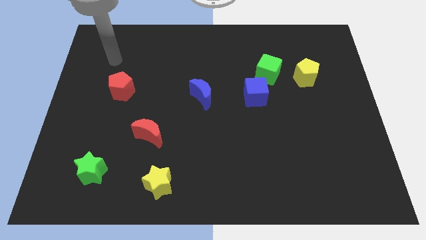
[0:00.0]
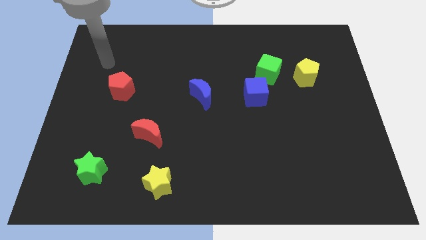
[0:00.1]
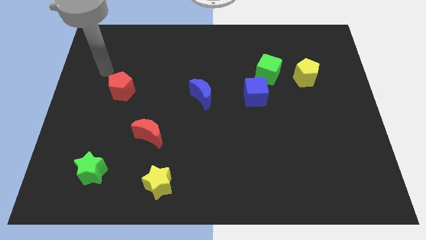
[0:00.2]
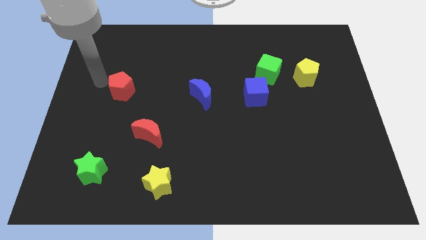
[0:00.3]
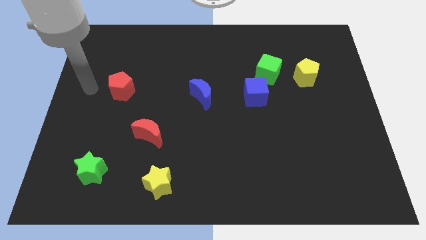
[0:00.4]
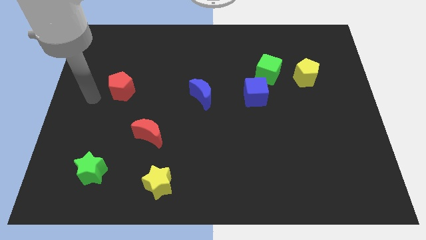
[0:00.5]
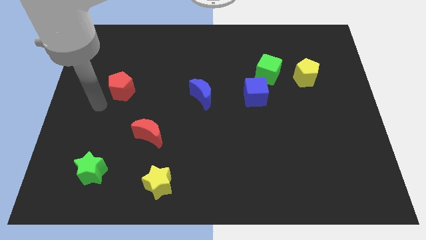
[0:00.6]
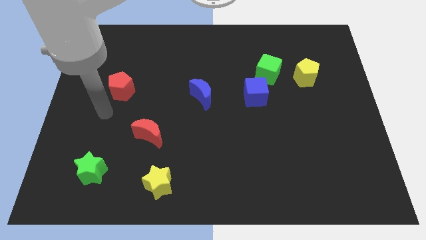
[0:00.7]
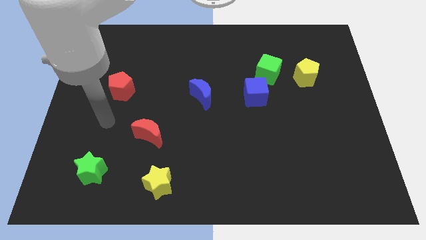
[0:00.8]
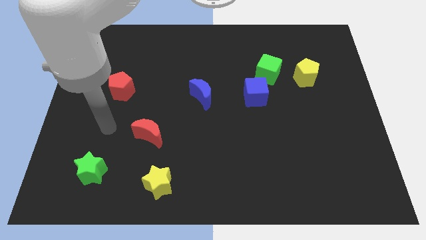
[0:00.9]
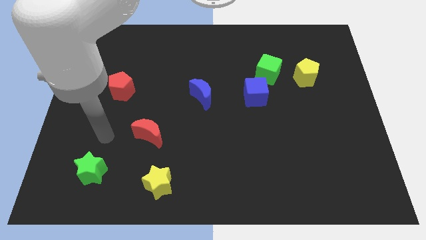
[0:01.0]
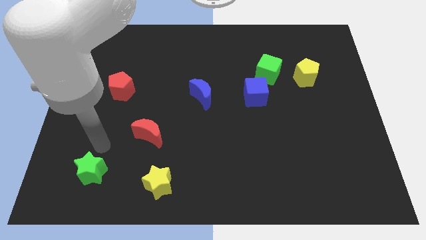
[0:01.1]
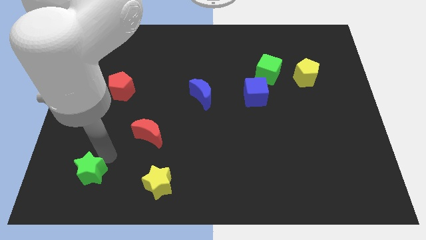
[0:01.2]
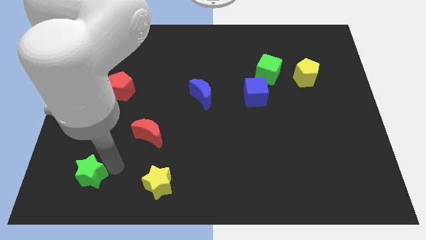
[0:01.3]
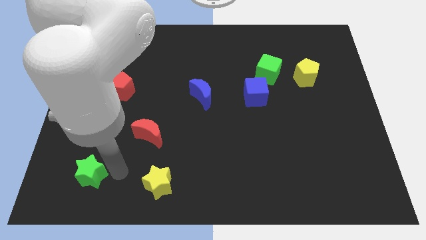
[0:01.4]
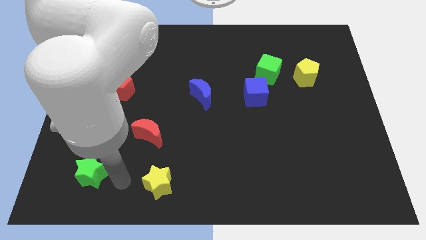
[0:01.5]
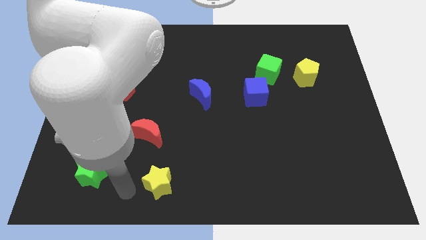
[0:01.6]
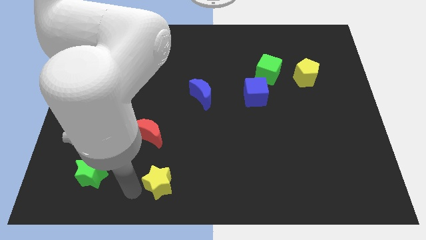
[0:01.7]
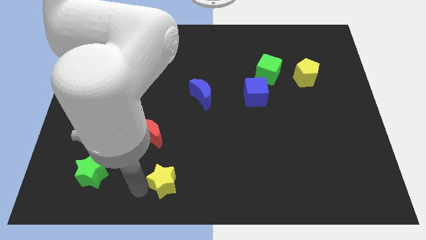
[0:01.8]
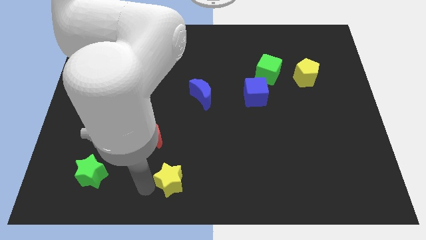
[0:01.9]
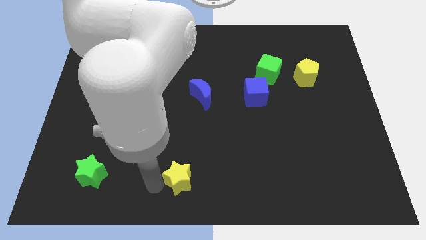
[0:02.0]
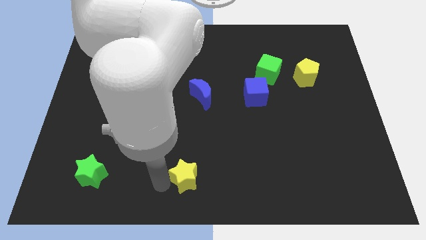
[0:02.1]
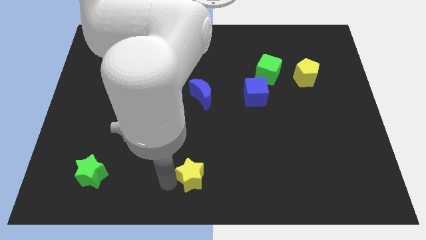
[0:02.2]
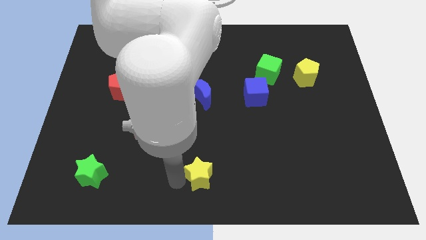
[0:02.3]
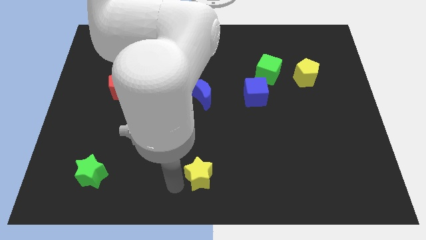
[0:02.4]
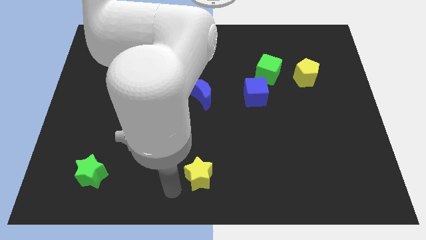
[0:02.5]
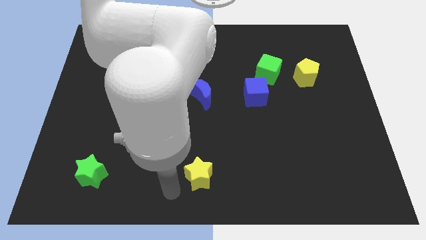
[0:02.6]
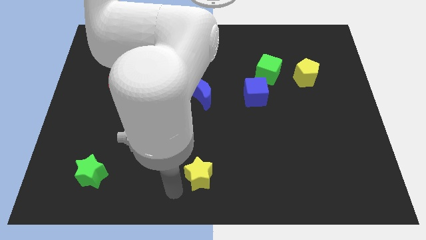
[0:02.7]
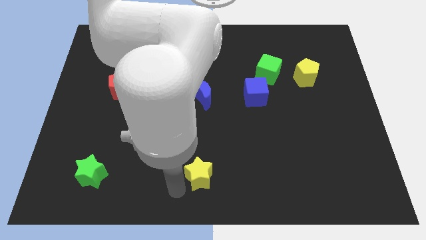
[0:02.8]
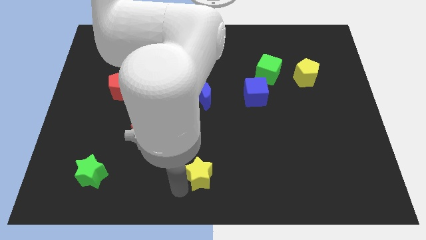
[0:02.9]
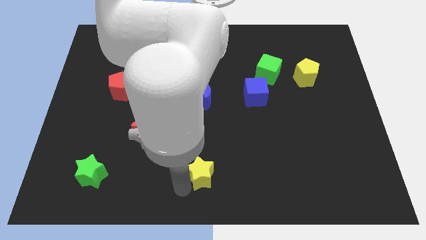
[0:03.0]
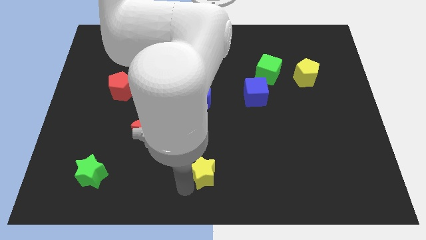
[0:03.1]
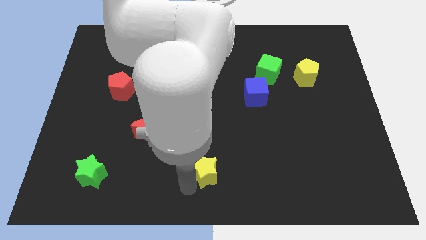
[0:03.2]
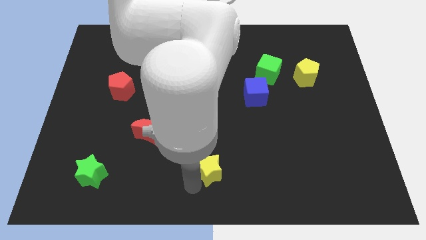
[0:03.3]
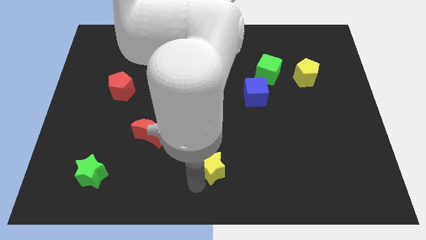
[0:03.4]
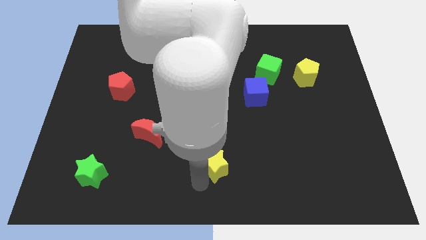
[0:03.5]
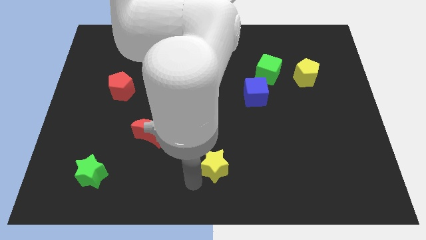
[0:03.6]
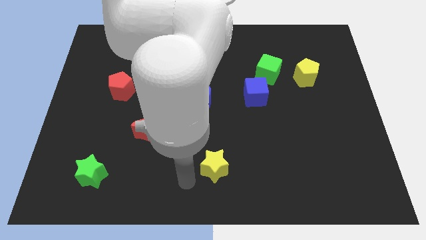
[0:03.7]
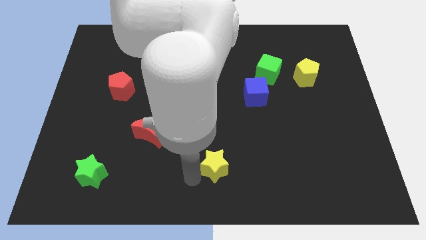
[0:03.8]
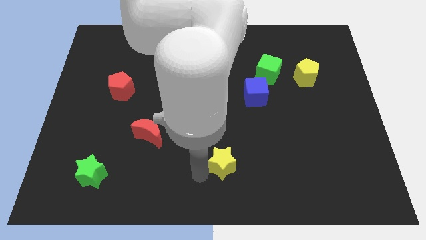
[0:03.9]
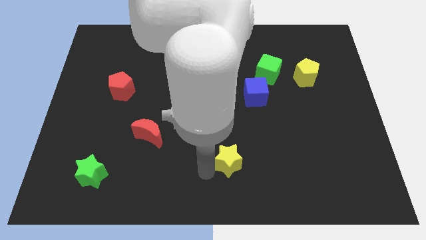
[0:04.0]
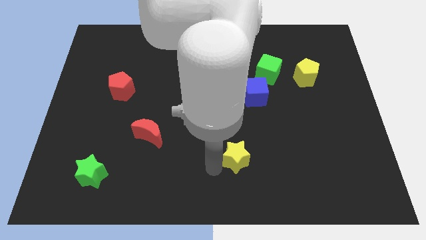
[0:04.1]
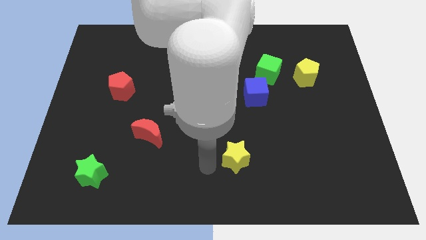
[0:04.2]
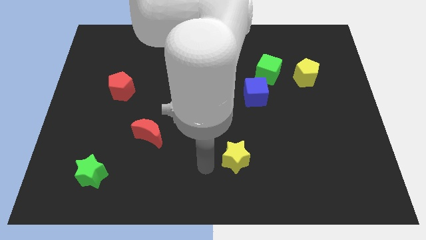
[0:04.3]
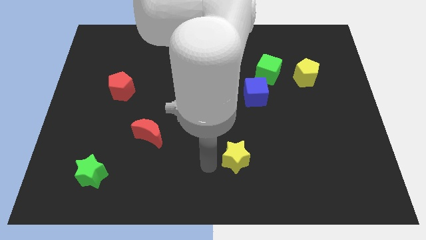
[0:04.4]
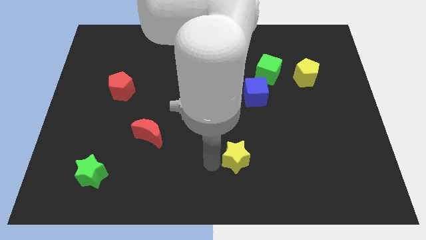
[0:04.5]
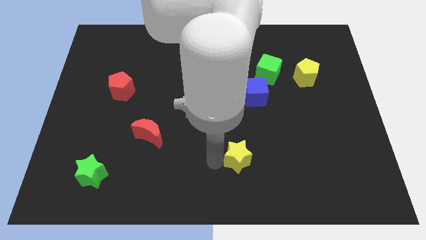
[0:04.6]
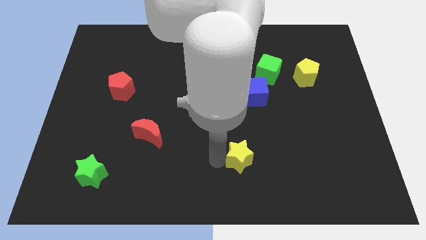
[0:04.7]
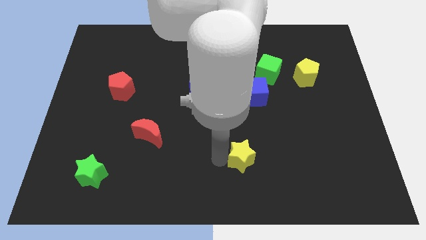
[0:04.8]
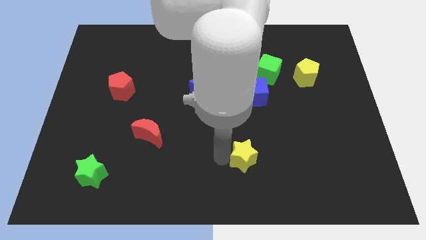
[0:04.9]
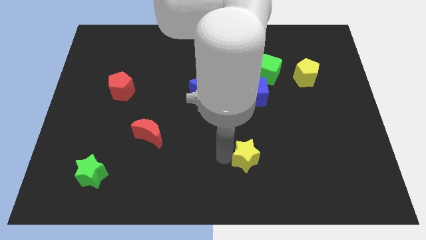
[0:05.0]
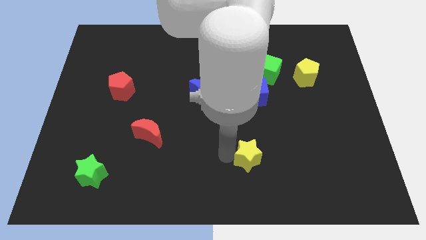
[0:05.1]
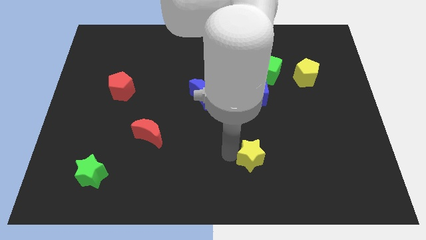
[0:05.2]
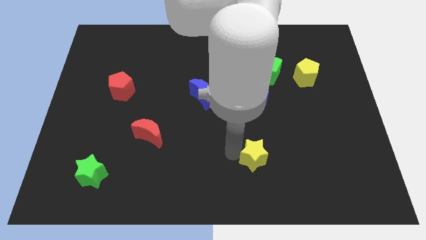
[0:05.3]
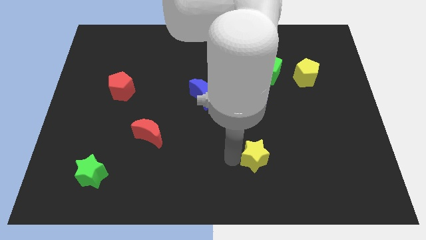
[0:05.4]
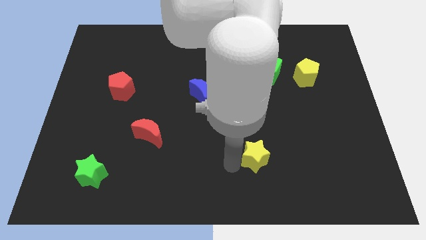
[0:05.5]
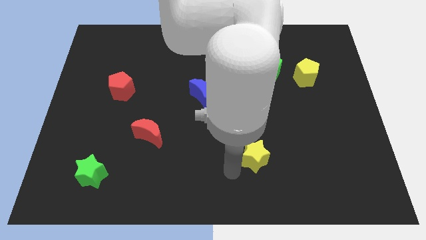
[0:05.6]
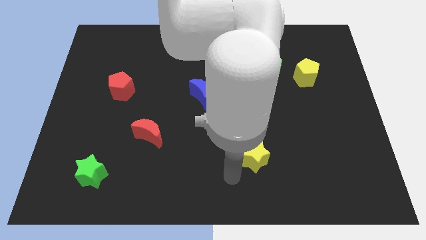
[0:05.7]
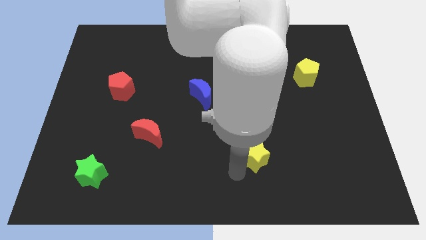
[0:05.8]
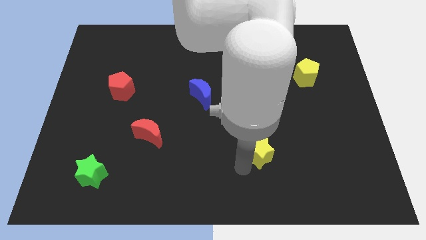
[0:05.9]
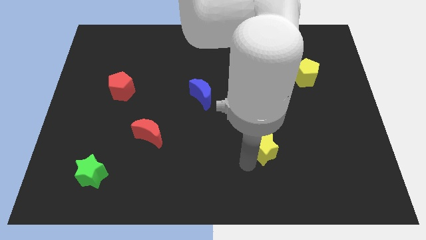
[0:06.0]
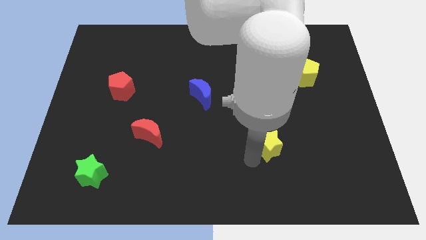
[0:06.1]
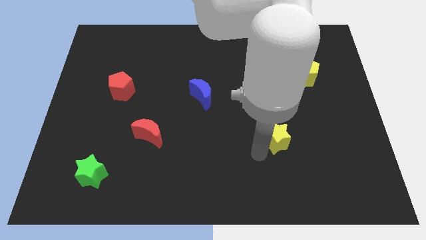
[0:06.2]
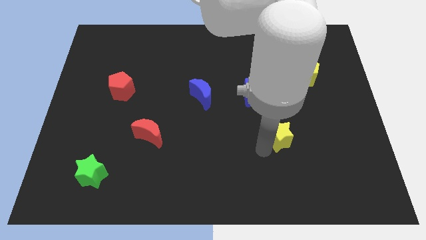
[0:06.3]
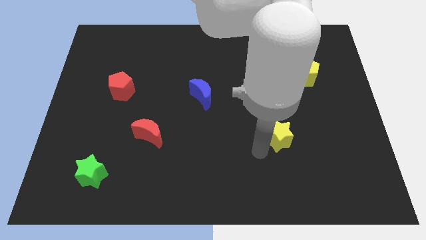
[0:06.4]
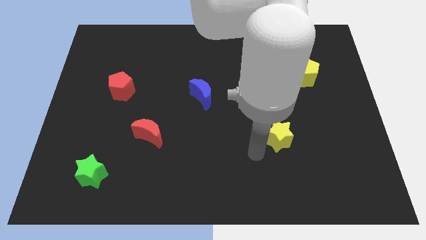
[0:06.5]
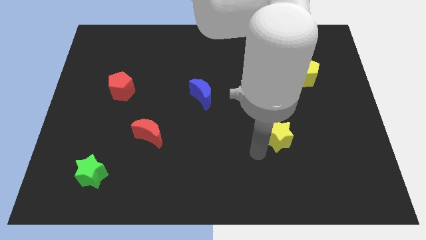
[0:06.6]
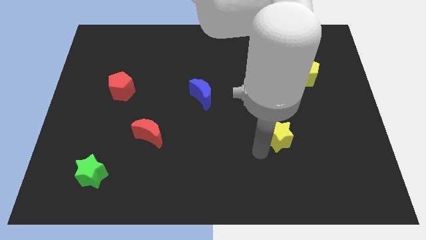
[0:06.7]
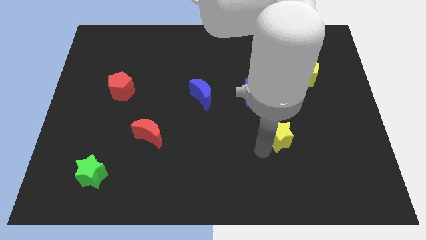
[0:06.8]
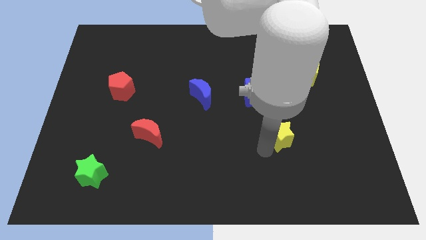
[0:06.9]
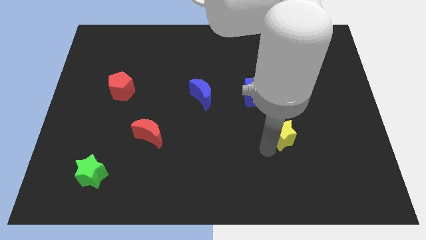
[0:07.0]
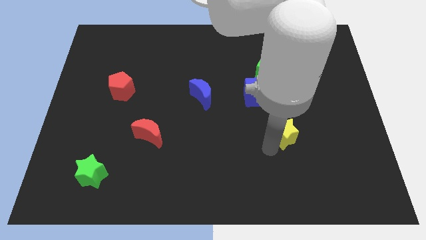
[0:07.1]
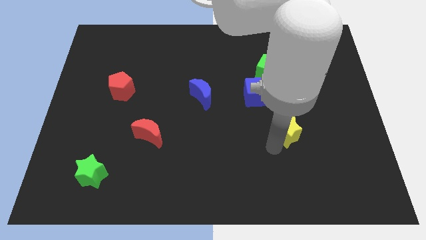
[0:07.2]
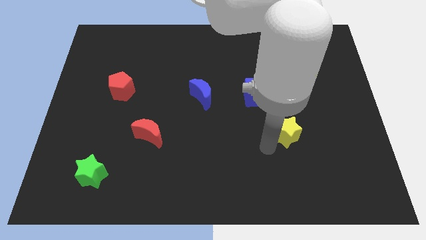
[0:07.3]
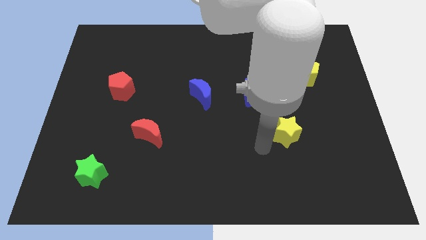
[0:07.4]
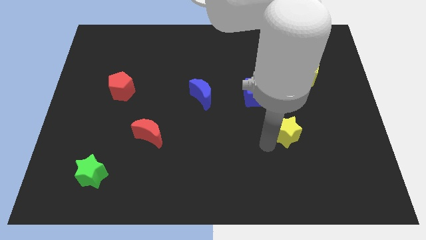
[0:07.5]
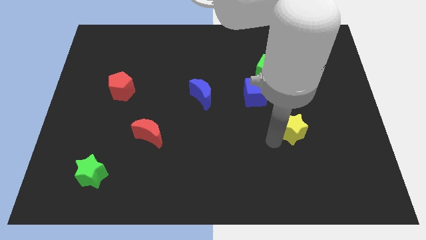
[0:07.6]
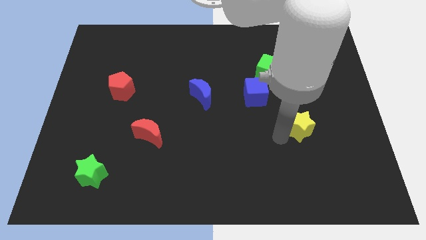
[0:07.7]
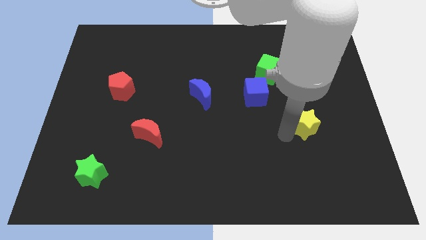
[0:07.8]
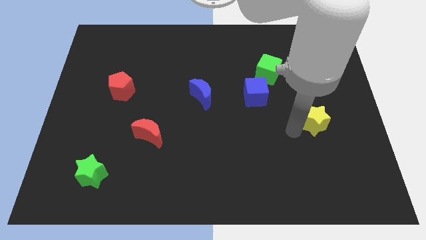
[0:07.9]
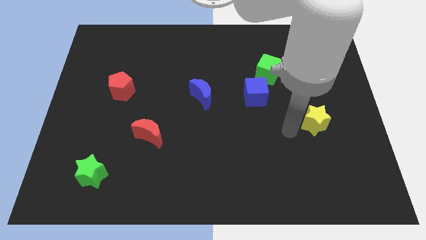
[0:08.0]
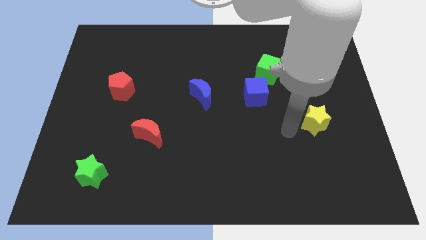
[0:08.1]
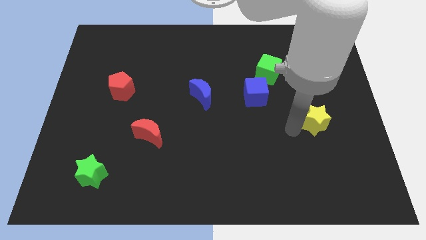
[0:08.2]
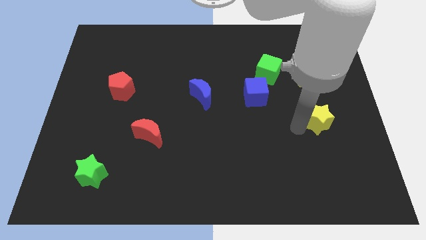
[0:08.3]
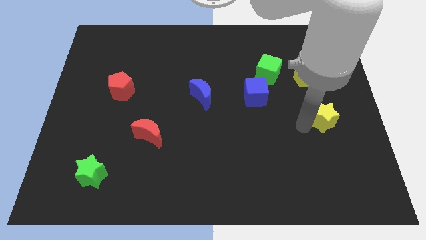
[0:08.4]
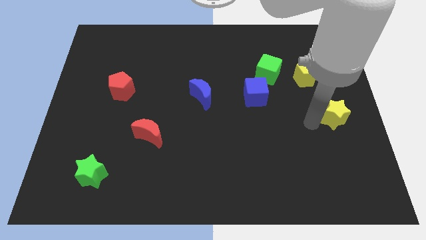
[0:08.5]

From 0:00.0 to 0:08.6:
slide the yellow star to the center right
